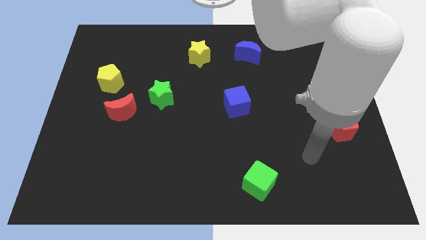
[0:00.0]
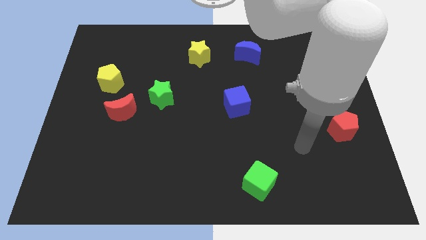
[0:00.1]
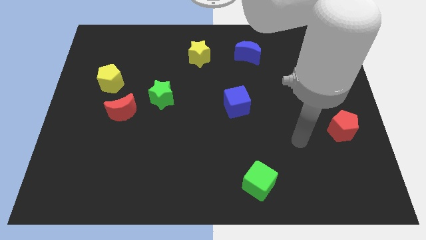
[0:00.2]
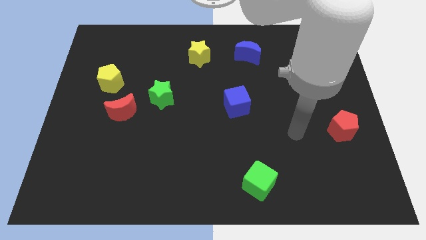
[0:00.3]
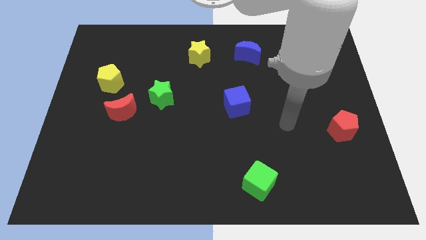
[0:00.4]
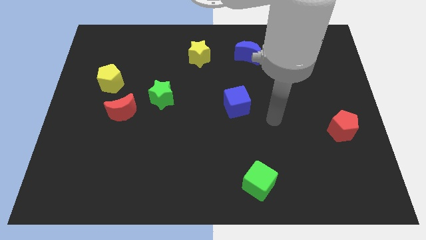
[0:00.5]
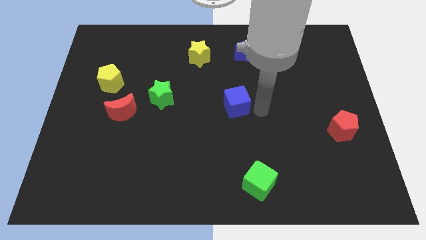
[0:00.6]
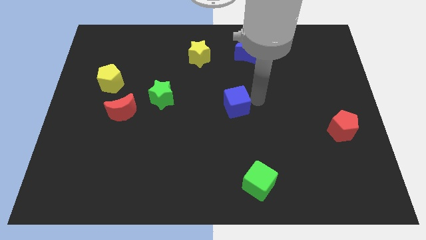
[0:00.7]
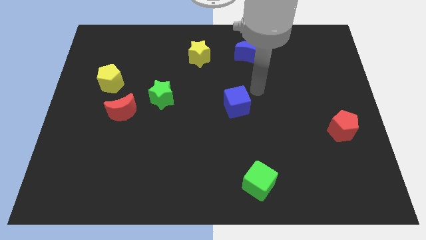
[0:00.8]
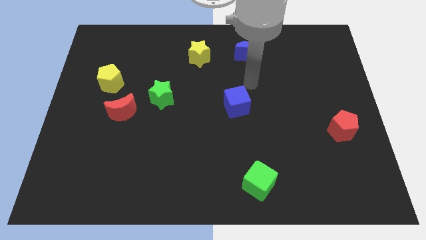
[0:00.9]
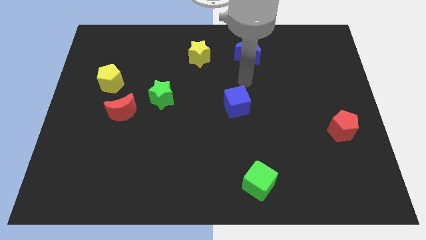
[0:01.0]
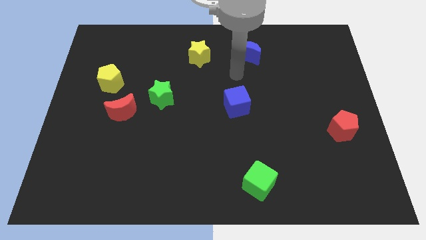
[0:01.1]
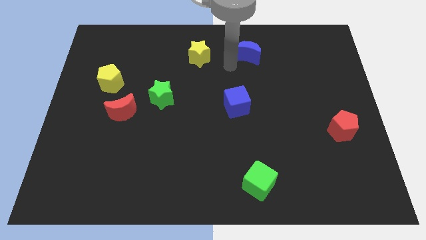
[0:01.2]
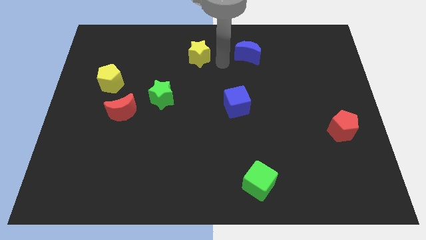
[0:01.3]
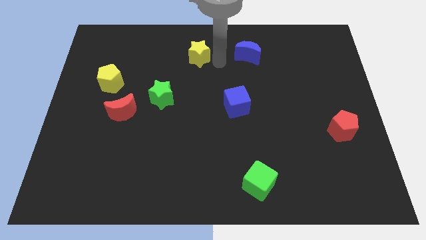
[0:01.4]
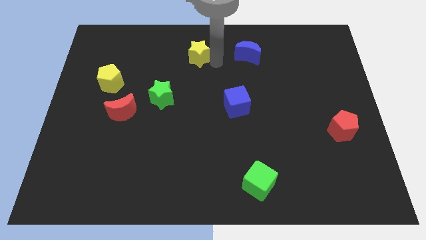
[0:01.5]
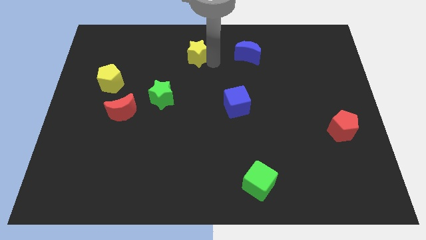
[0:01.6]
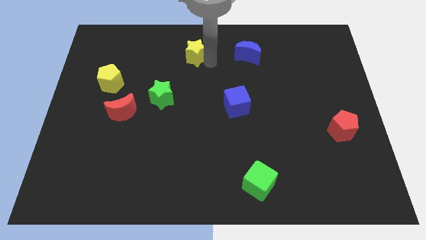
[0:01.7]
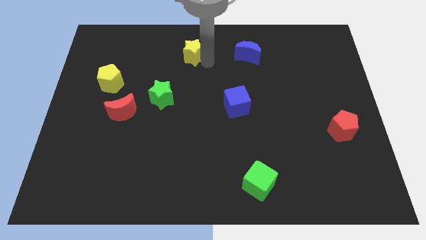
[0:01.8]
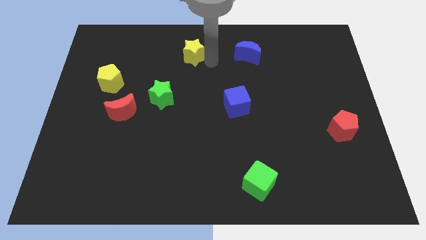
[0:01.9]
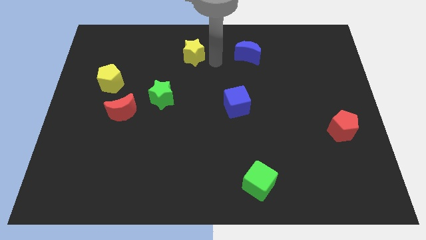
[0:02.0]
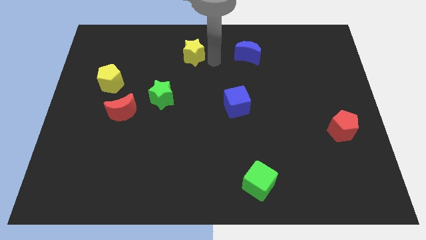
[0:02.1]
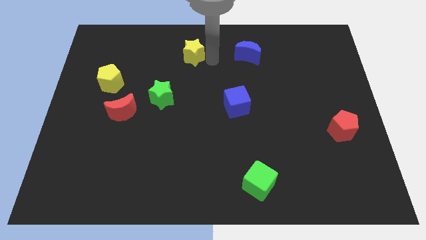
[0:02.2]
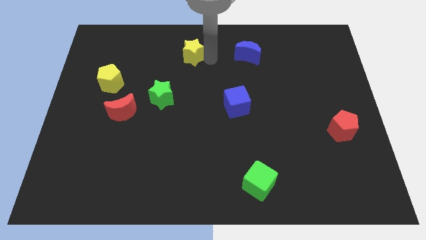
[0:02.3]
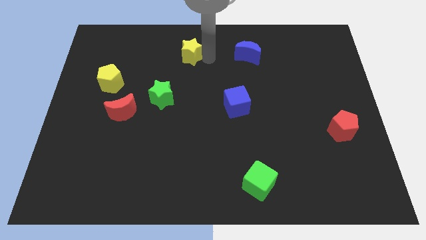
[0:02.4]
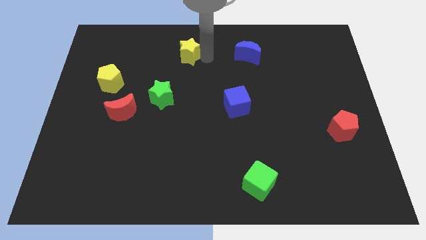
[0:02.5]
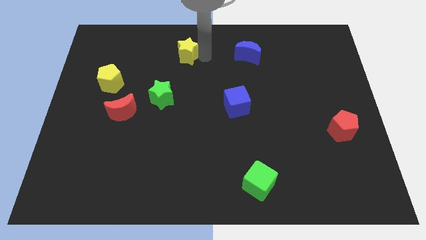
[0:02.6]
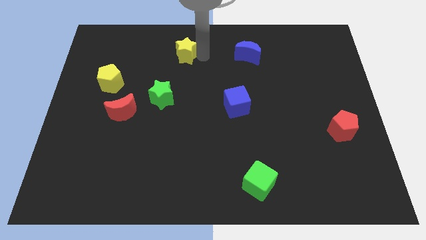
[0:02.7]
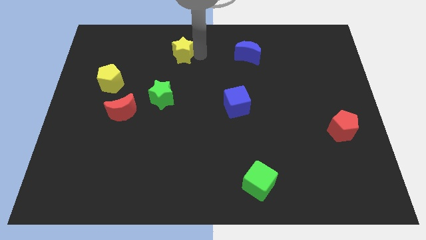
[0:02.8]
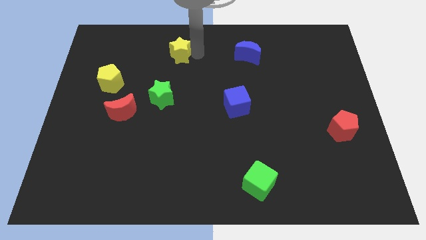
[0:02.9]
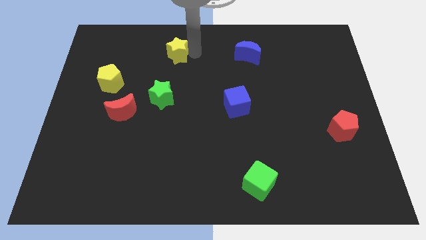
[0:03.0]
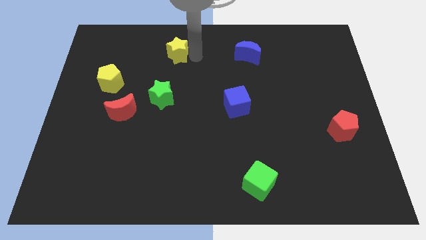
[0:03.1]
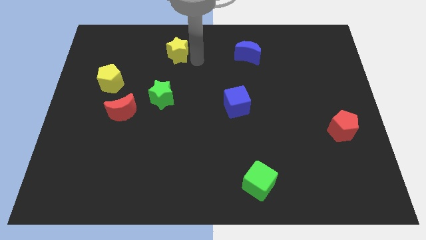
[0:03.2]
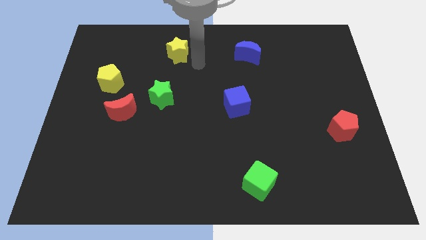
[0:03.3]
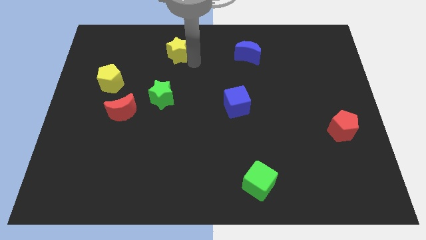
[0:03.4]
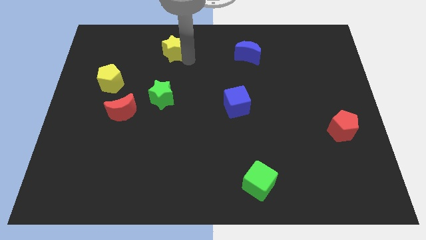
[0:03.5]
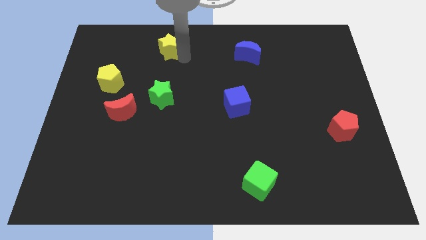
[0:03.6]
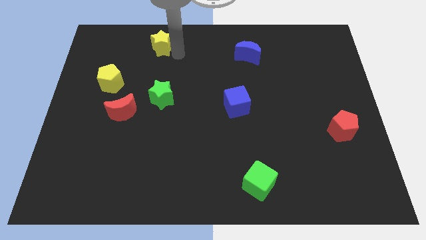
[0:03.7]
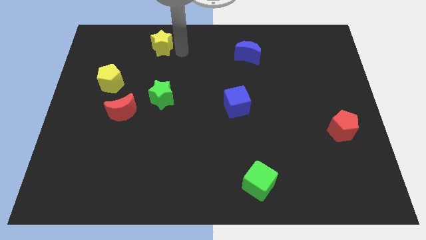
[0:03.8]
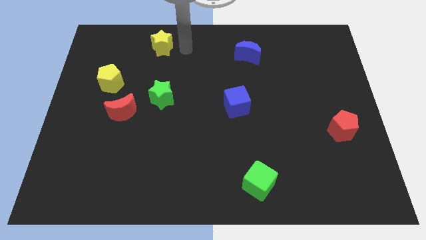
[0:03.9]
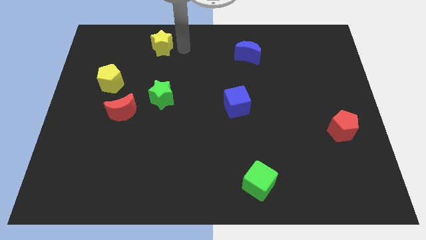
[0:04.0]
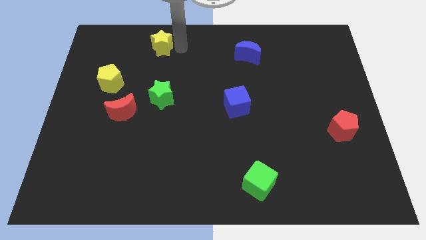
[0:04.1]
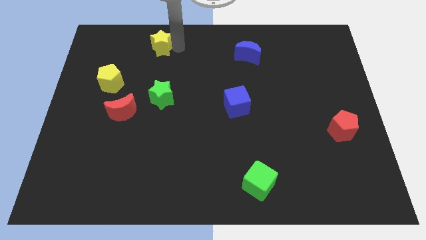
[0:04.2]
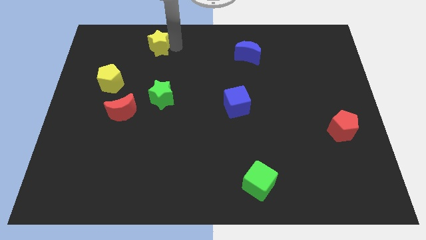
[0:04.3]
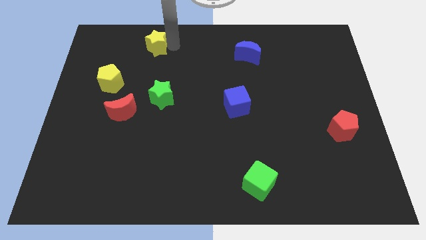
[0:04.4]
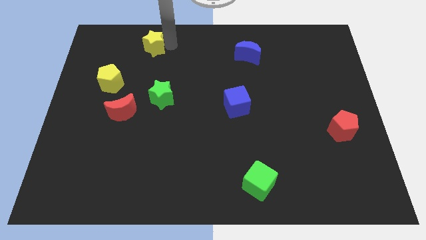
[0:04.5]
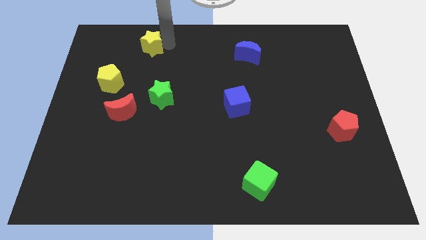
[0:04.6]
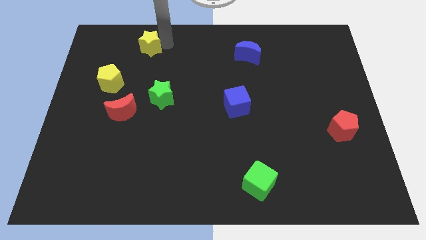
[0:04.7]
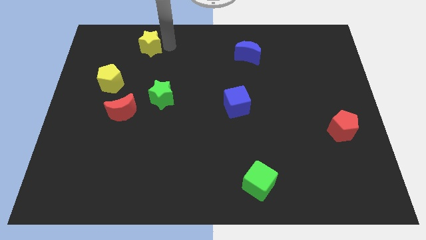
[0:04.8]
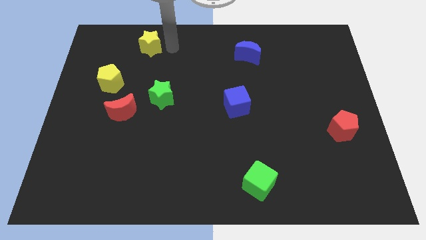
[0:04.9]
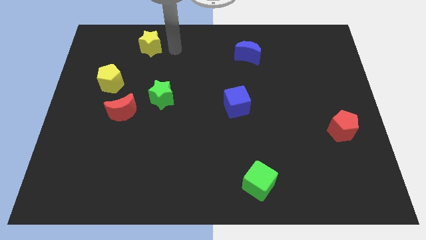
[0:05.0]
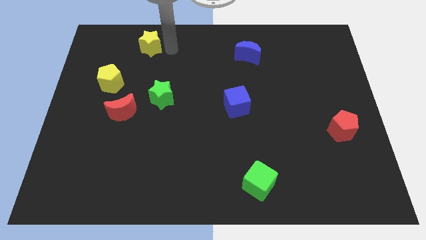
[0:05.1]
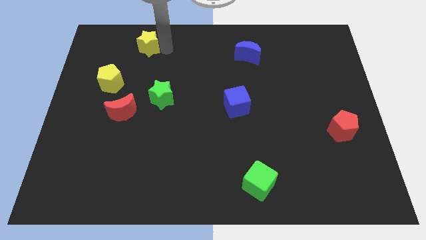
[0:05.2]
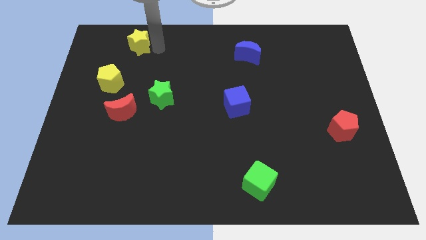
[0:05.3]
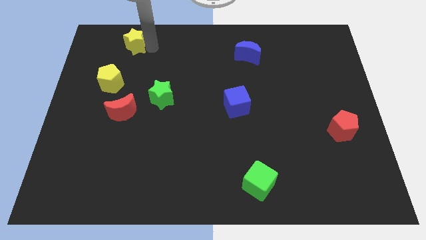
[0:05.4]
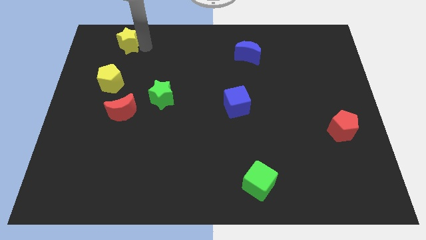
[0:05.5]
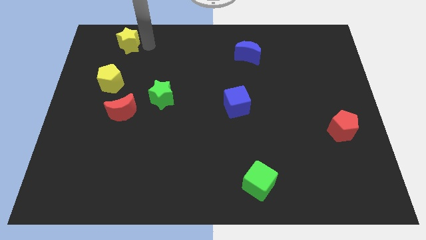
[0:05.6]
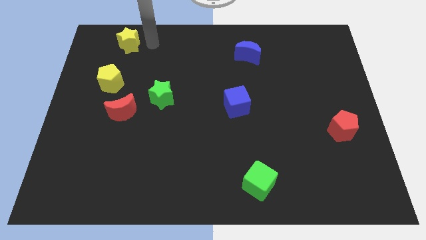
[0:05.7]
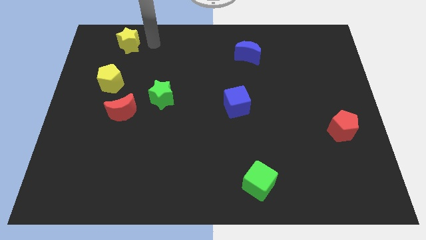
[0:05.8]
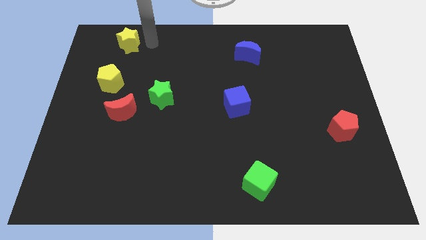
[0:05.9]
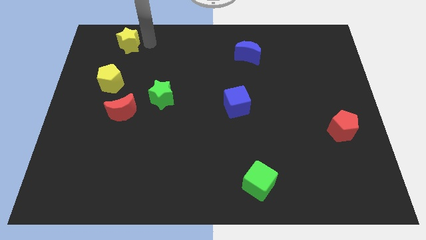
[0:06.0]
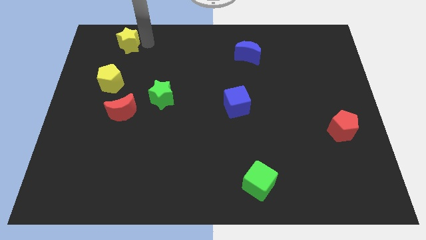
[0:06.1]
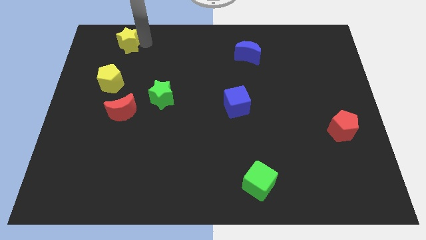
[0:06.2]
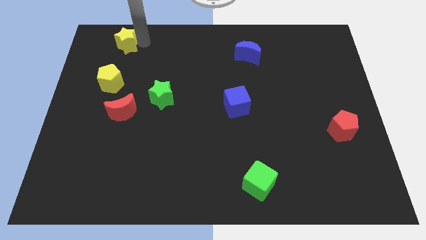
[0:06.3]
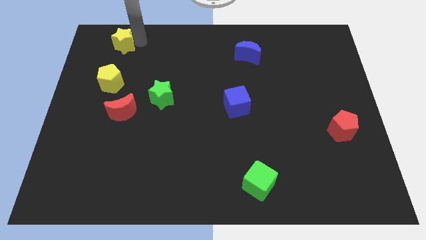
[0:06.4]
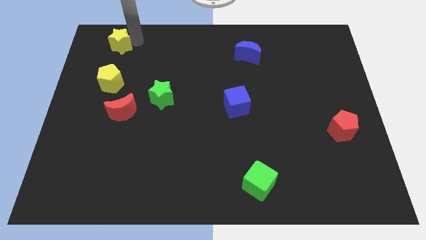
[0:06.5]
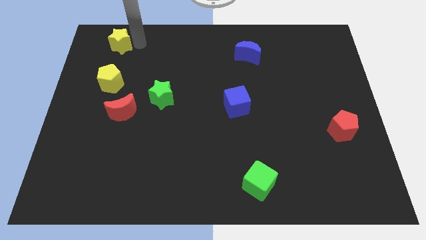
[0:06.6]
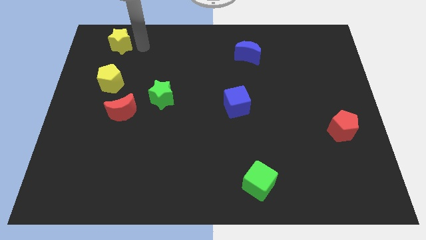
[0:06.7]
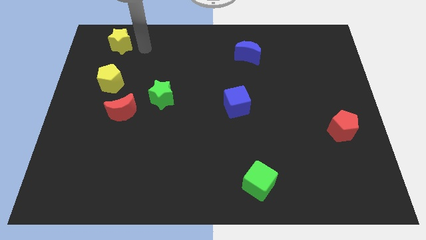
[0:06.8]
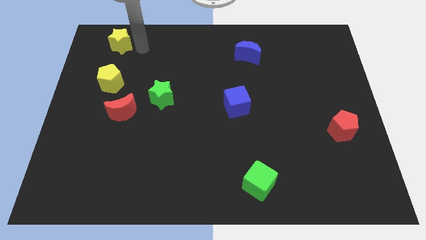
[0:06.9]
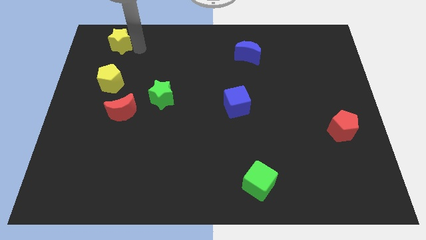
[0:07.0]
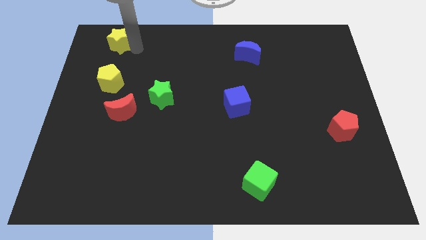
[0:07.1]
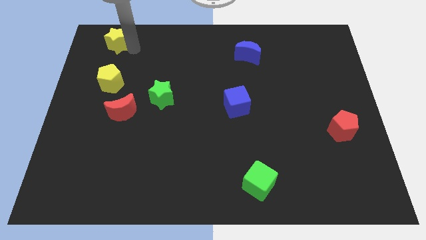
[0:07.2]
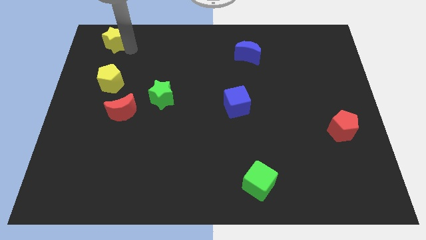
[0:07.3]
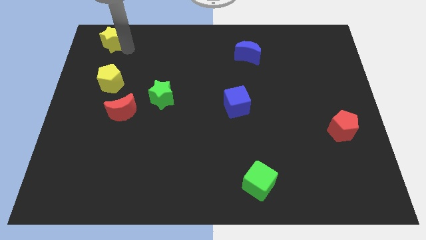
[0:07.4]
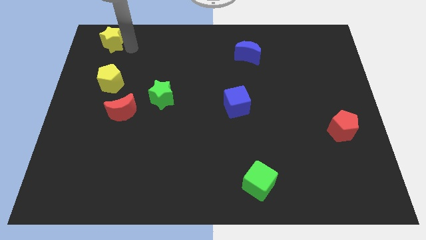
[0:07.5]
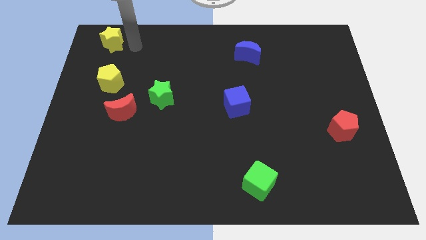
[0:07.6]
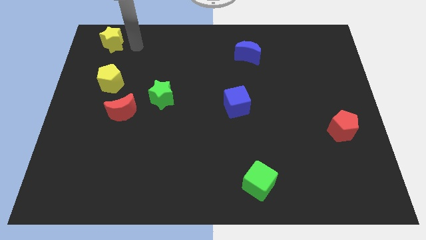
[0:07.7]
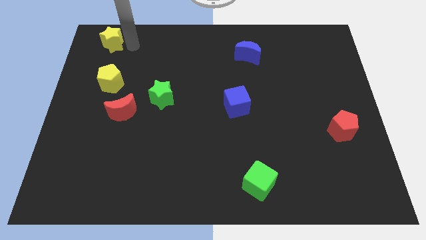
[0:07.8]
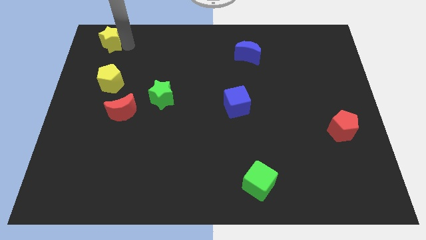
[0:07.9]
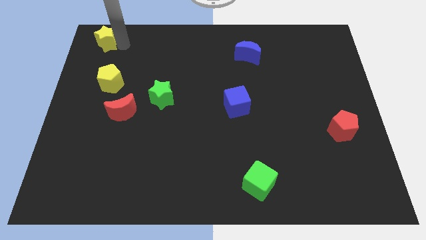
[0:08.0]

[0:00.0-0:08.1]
slide the yellow star to the upper left corner
